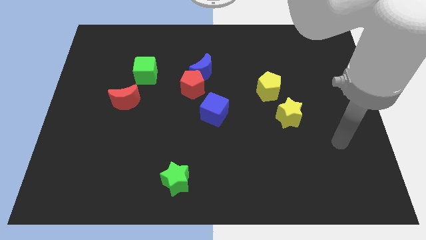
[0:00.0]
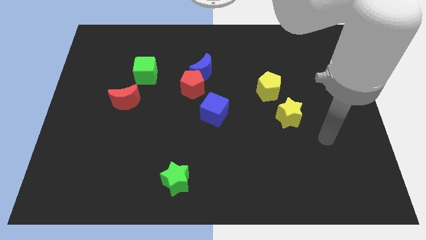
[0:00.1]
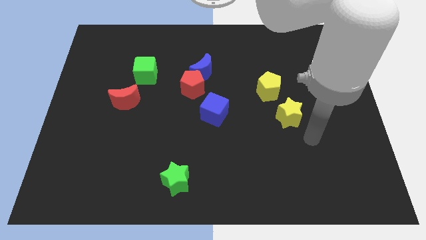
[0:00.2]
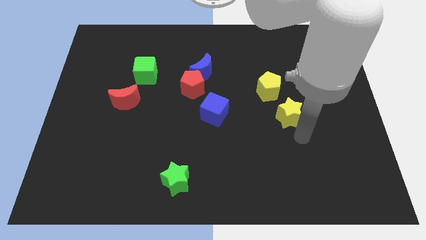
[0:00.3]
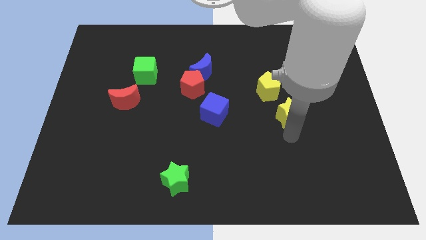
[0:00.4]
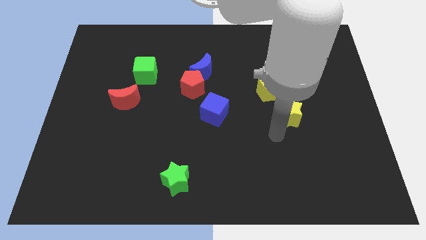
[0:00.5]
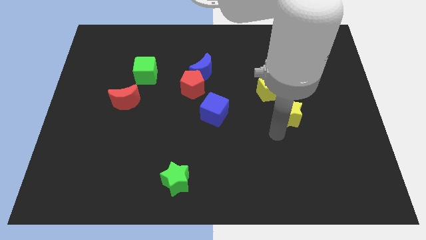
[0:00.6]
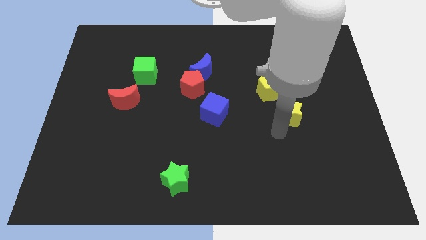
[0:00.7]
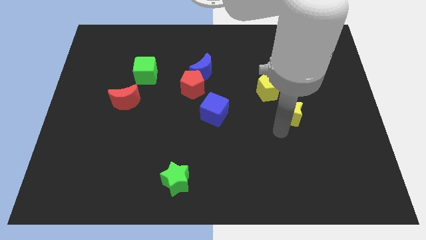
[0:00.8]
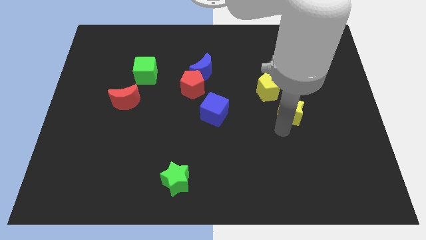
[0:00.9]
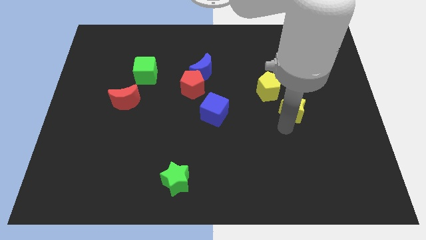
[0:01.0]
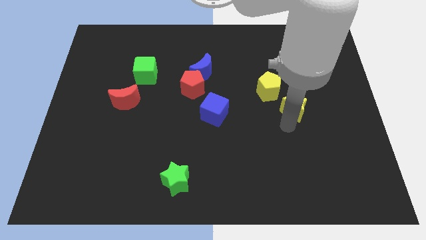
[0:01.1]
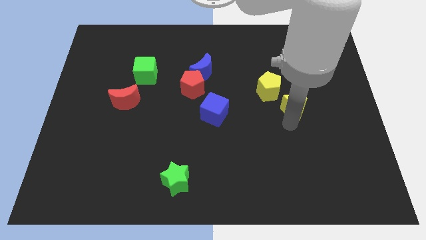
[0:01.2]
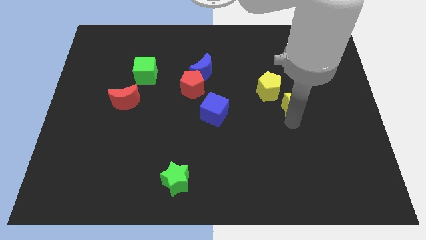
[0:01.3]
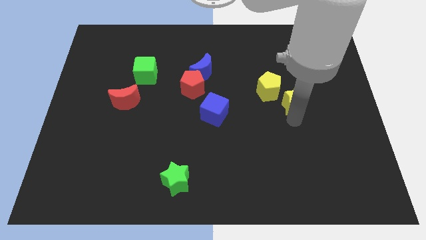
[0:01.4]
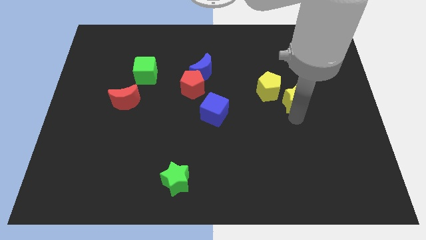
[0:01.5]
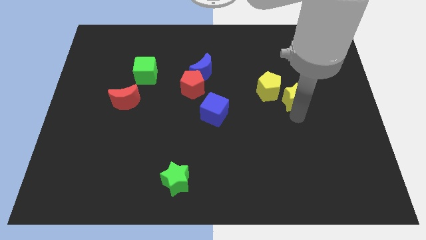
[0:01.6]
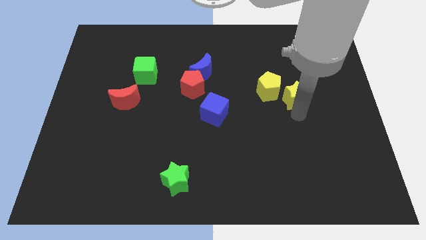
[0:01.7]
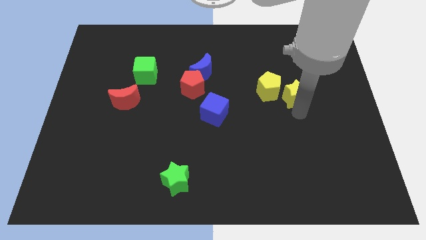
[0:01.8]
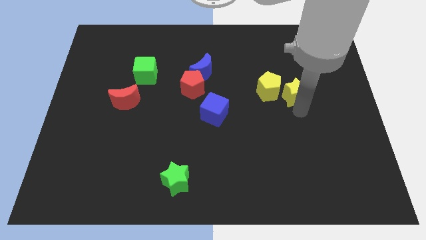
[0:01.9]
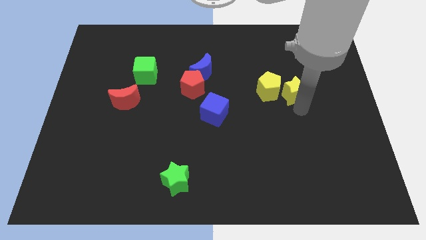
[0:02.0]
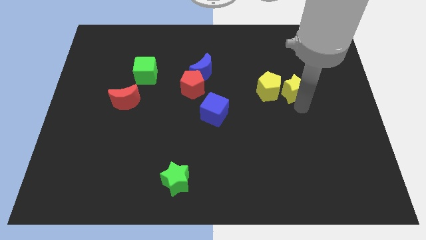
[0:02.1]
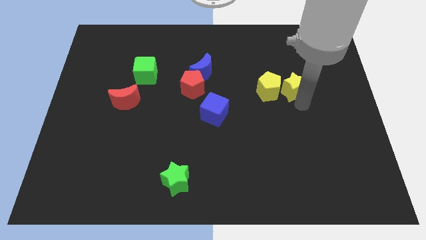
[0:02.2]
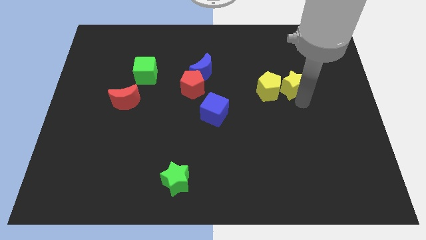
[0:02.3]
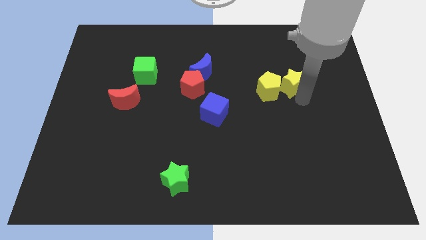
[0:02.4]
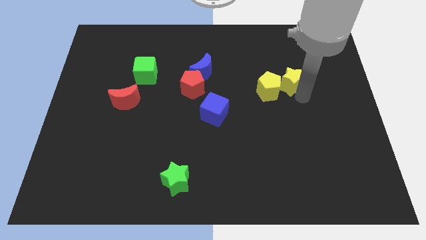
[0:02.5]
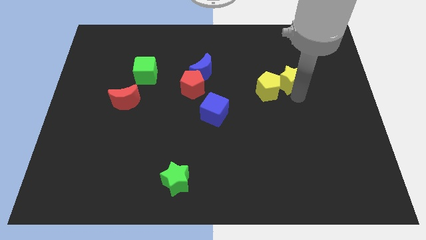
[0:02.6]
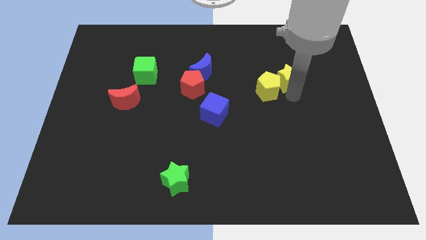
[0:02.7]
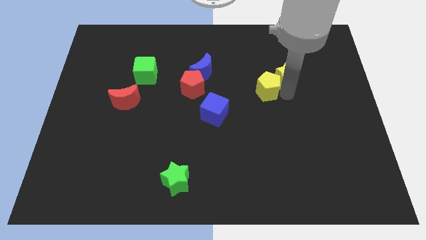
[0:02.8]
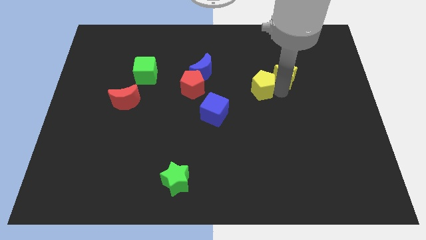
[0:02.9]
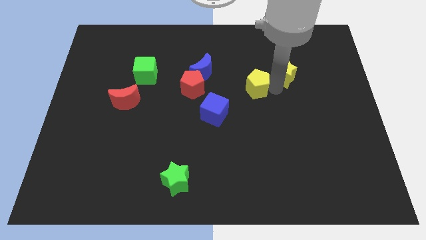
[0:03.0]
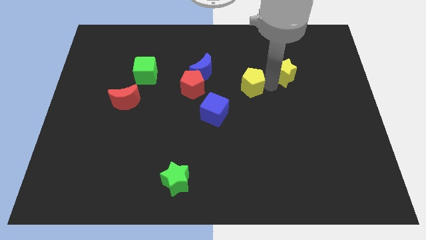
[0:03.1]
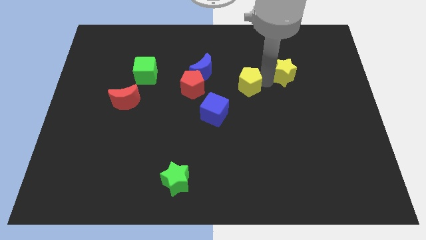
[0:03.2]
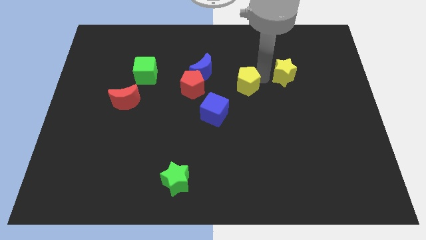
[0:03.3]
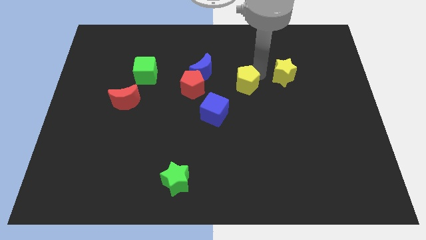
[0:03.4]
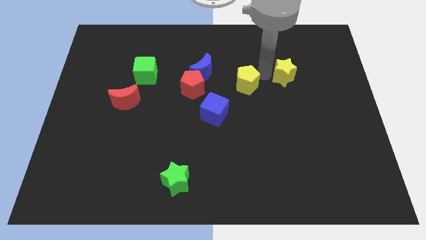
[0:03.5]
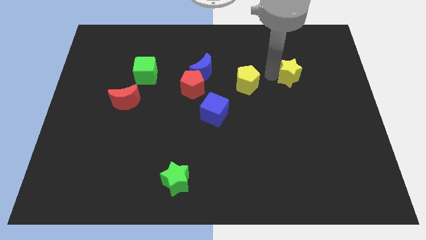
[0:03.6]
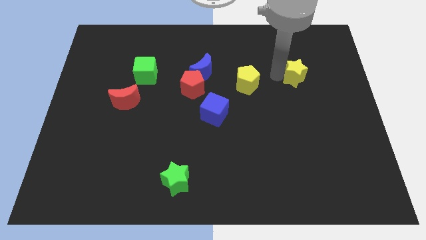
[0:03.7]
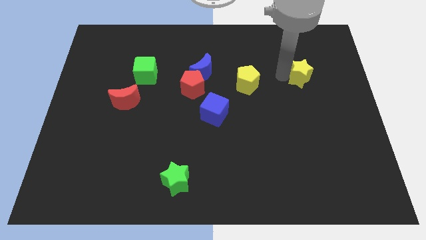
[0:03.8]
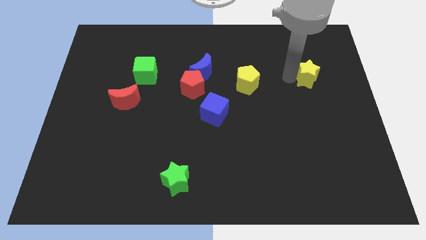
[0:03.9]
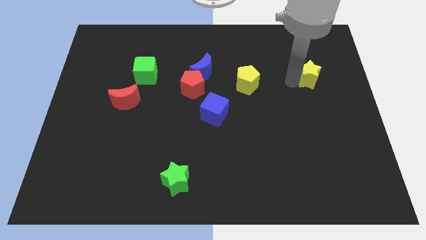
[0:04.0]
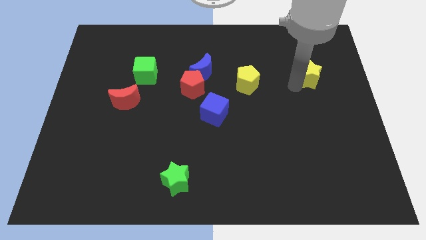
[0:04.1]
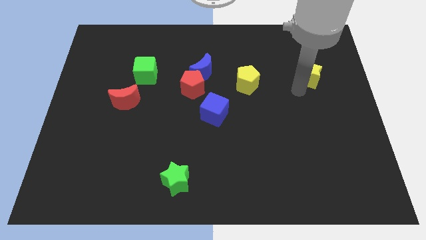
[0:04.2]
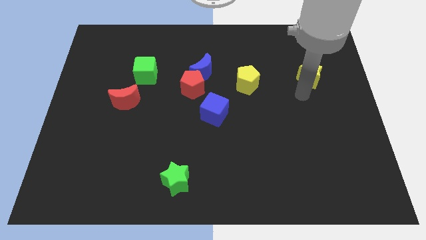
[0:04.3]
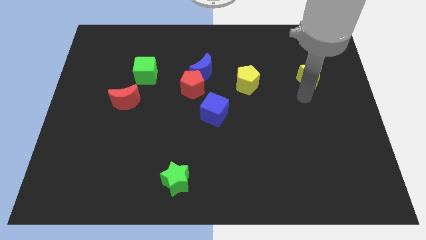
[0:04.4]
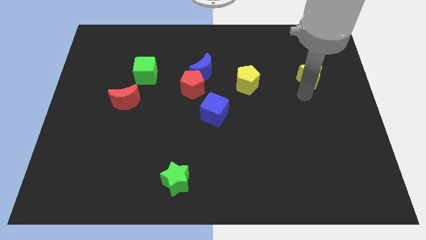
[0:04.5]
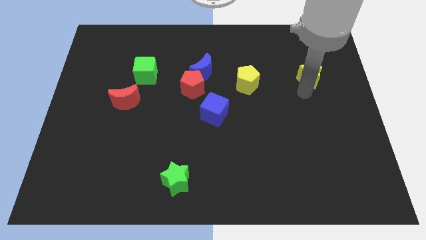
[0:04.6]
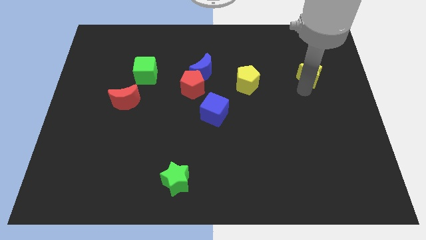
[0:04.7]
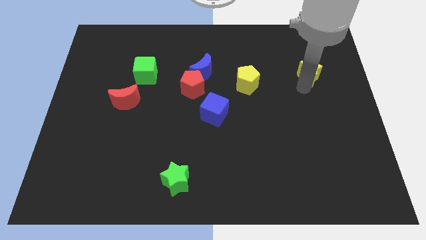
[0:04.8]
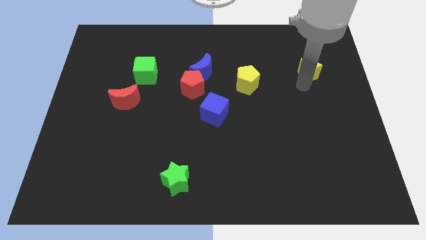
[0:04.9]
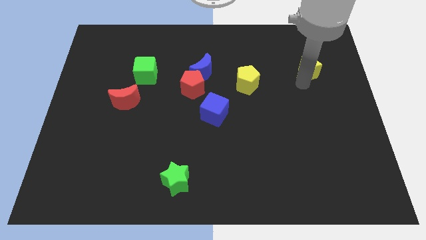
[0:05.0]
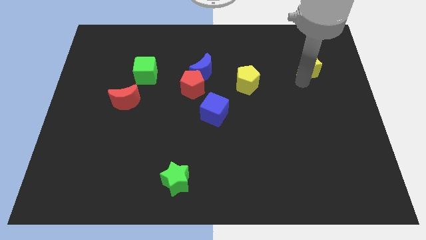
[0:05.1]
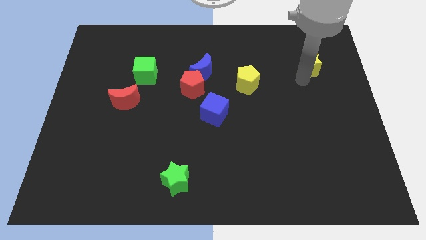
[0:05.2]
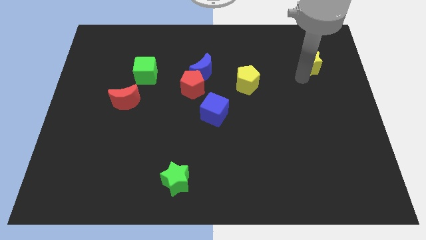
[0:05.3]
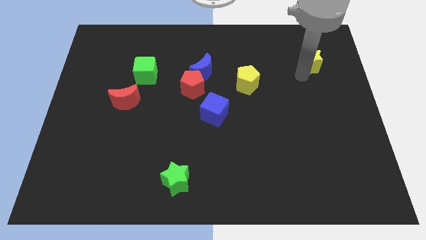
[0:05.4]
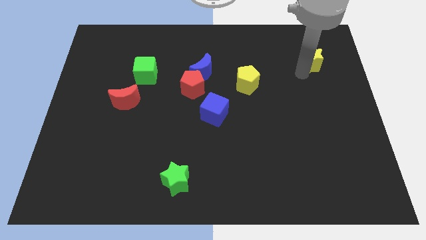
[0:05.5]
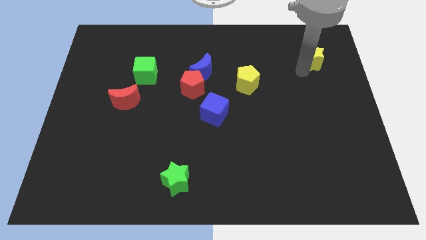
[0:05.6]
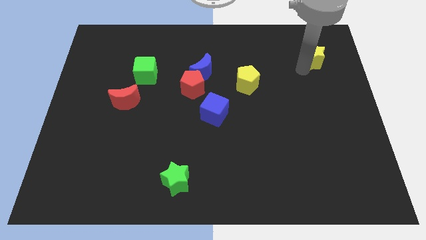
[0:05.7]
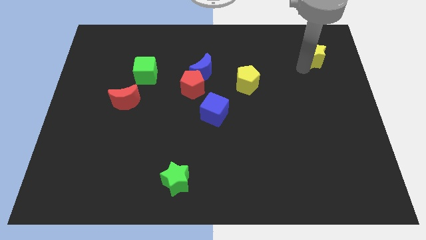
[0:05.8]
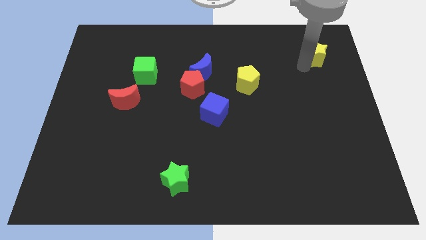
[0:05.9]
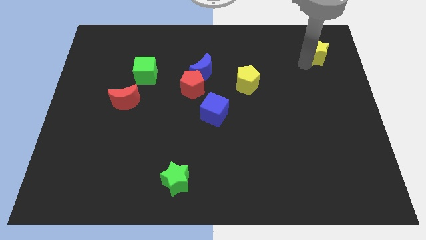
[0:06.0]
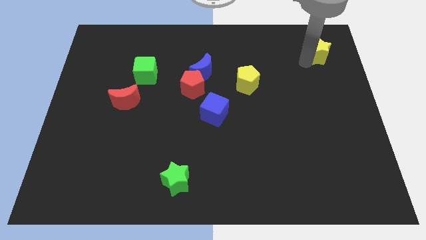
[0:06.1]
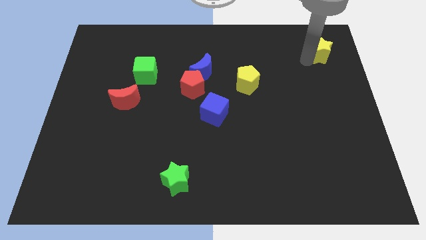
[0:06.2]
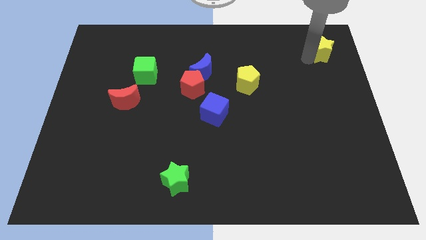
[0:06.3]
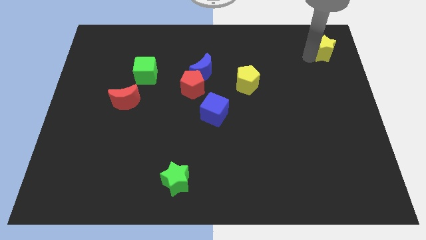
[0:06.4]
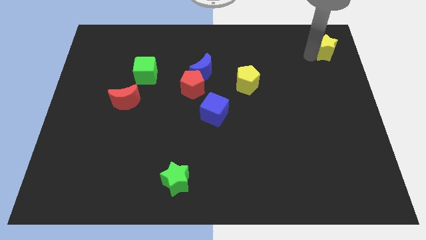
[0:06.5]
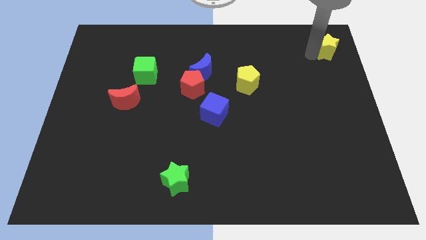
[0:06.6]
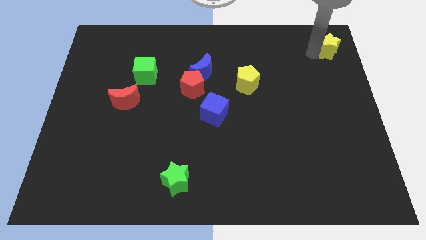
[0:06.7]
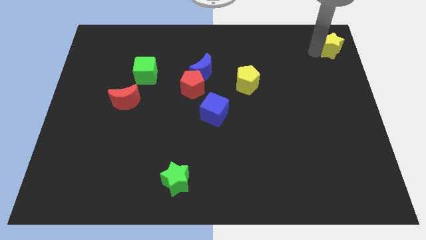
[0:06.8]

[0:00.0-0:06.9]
push the yellow star to the top right of the board
